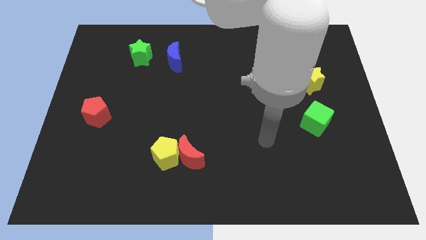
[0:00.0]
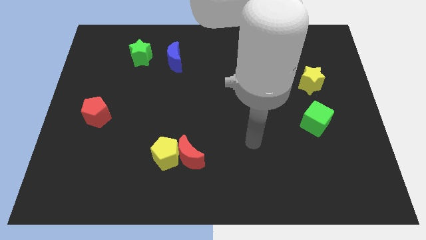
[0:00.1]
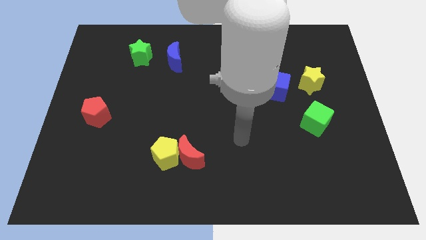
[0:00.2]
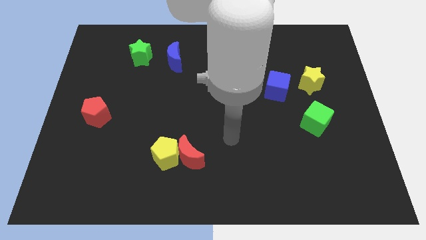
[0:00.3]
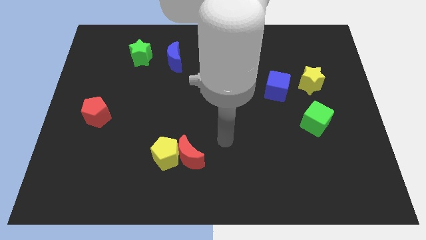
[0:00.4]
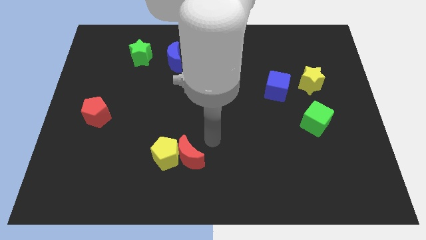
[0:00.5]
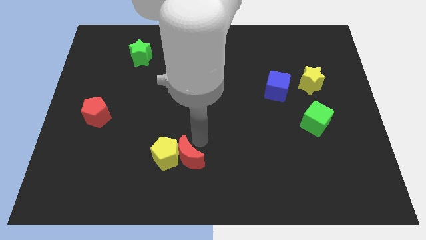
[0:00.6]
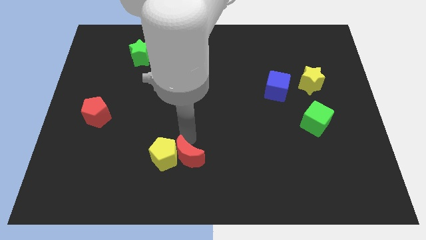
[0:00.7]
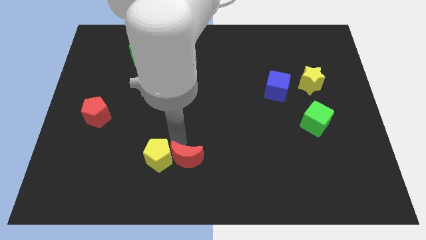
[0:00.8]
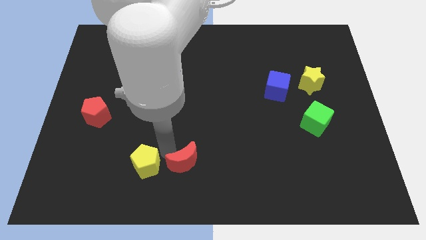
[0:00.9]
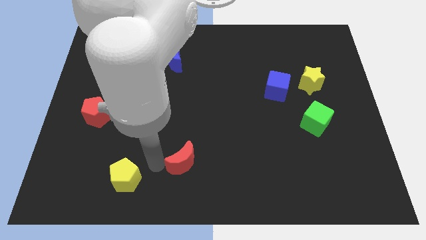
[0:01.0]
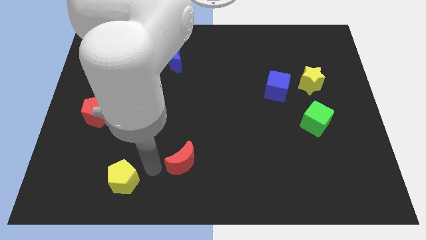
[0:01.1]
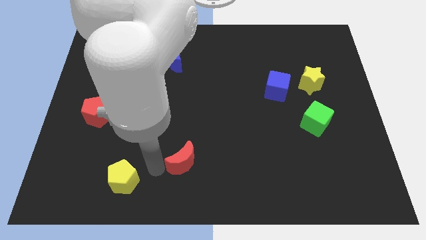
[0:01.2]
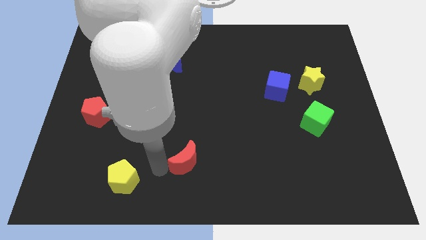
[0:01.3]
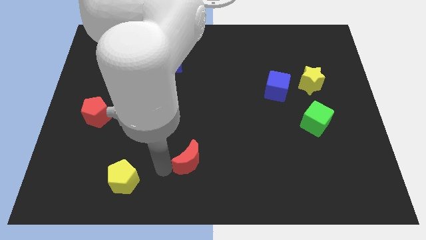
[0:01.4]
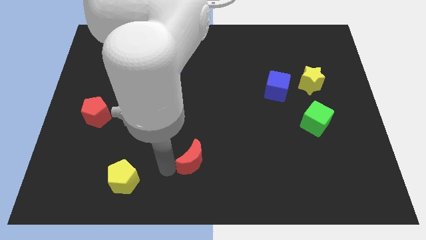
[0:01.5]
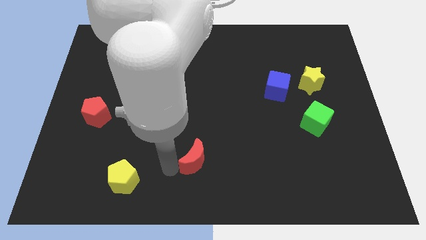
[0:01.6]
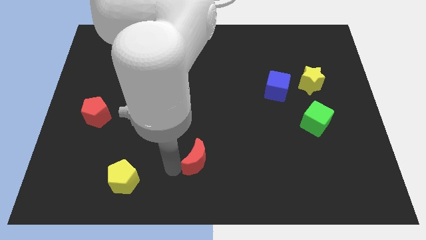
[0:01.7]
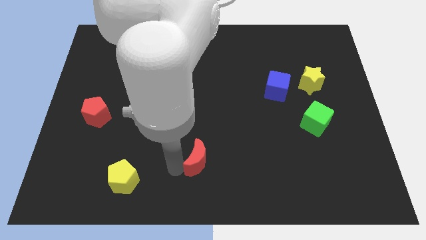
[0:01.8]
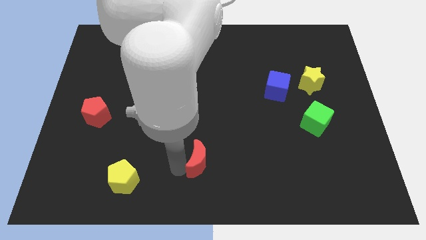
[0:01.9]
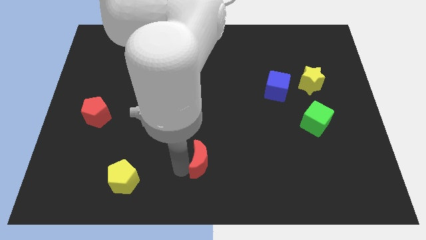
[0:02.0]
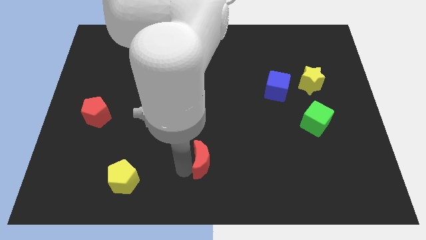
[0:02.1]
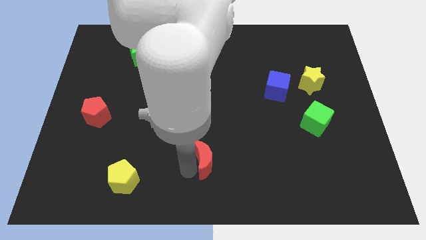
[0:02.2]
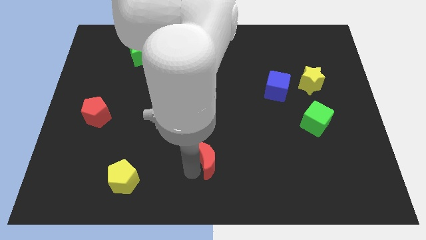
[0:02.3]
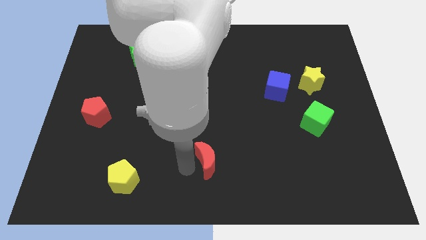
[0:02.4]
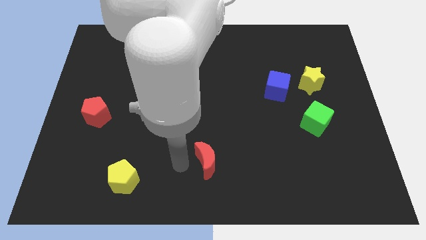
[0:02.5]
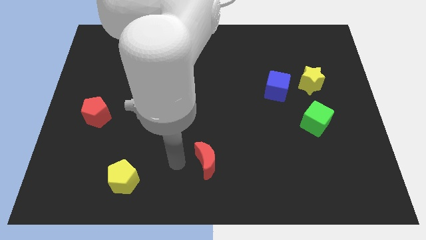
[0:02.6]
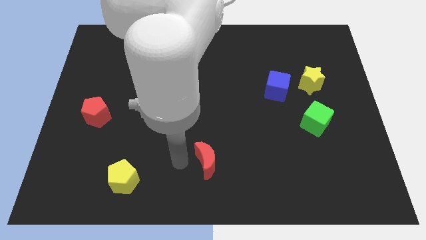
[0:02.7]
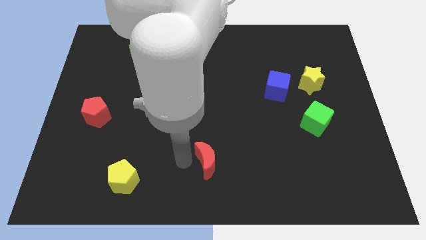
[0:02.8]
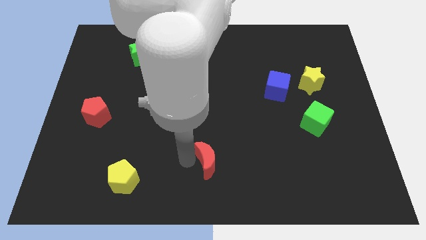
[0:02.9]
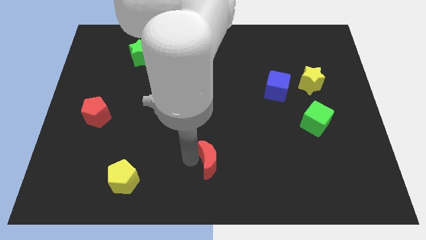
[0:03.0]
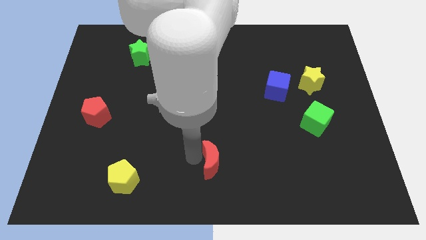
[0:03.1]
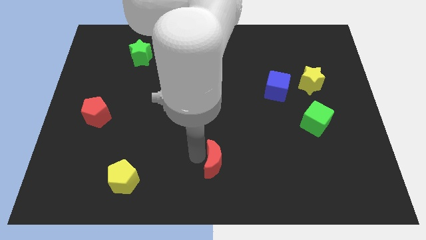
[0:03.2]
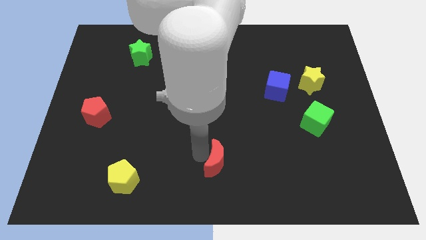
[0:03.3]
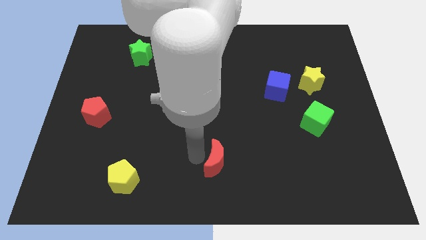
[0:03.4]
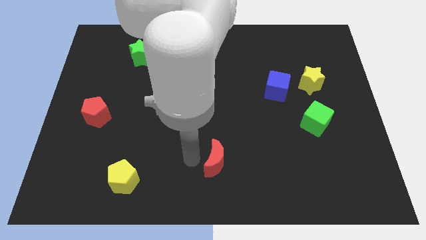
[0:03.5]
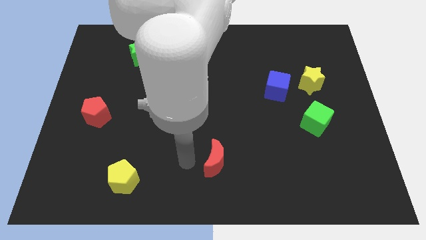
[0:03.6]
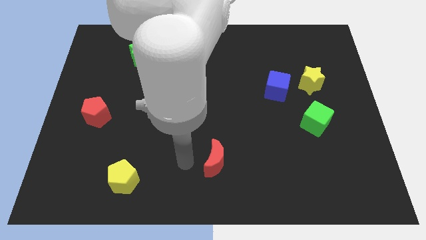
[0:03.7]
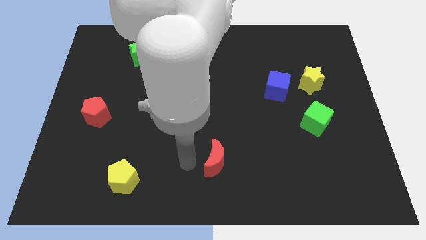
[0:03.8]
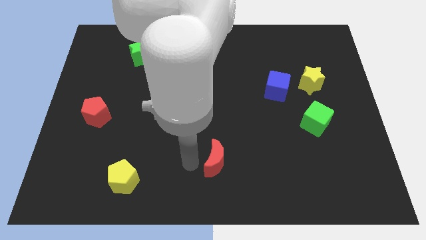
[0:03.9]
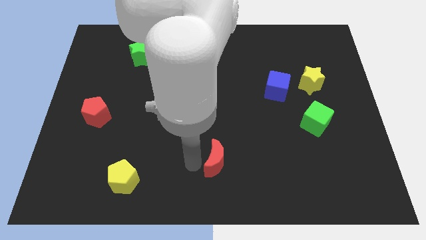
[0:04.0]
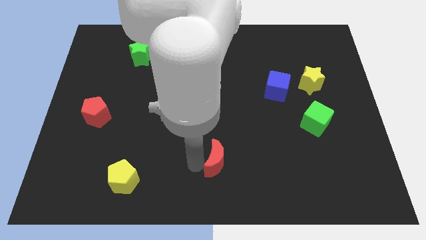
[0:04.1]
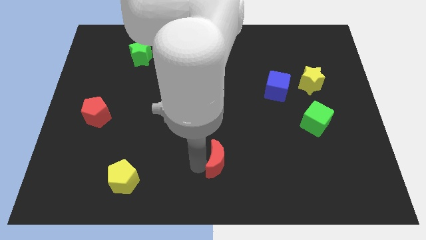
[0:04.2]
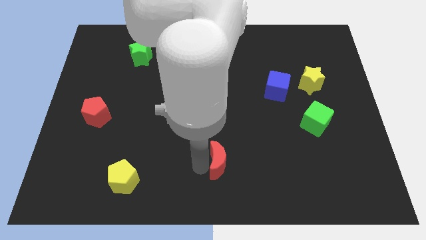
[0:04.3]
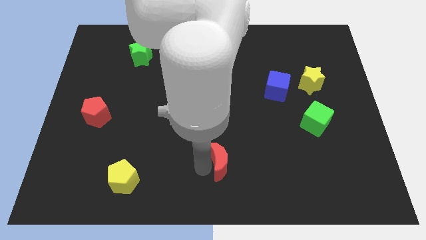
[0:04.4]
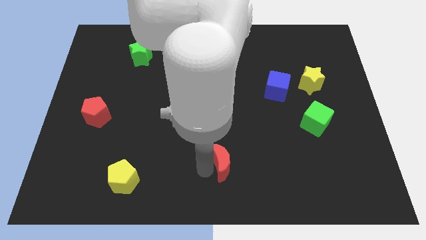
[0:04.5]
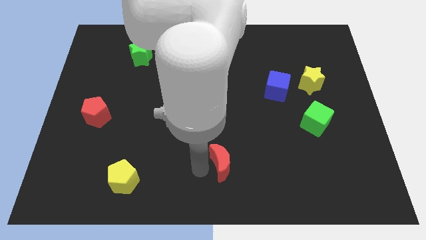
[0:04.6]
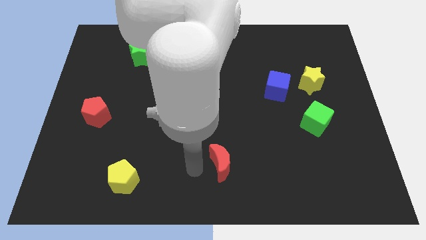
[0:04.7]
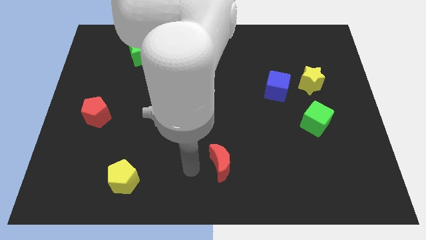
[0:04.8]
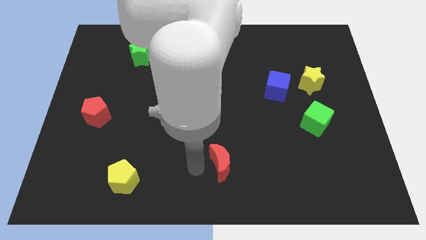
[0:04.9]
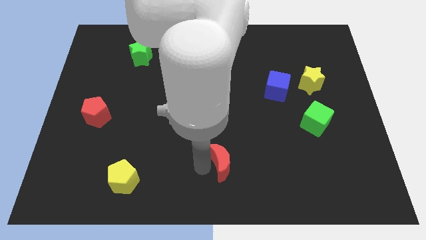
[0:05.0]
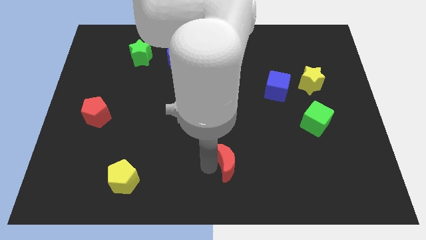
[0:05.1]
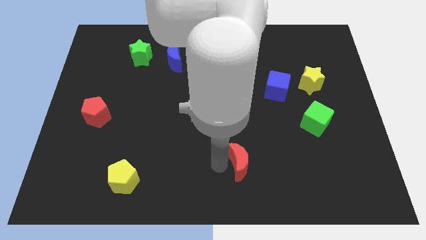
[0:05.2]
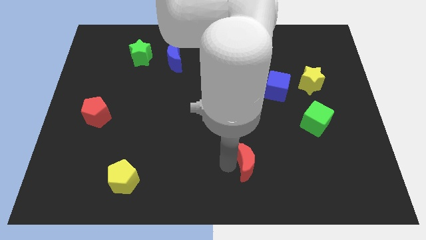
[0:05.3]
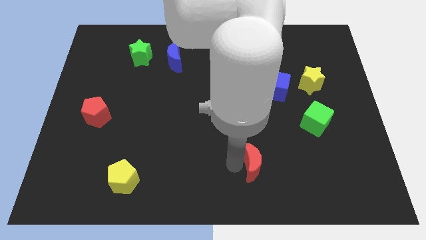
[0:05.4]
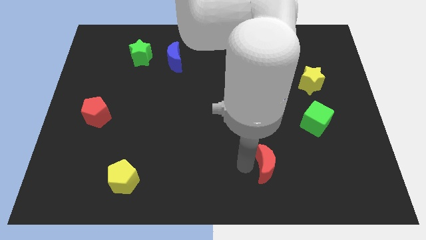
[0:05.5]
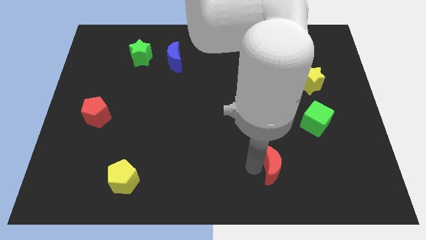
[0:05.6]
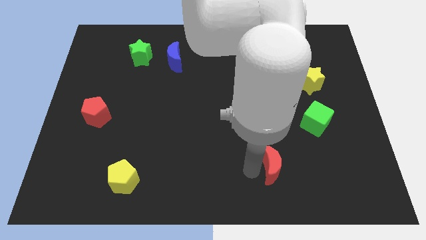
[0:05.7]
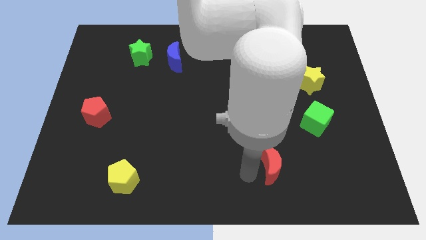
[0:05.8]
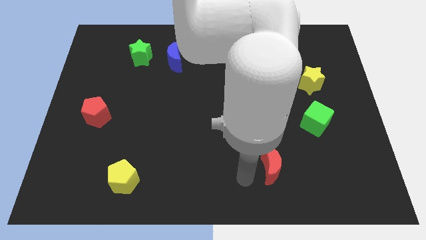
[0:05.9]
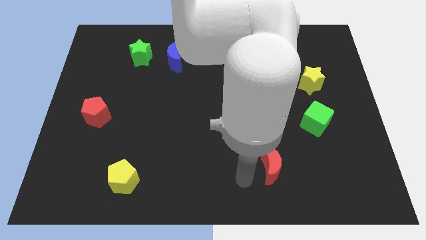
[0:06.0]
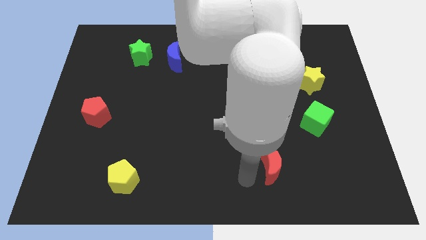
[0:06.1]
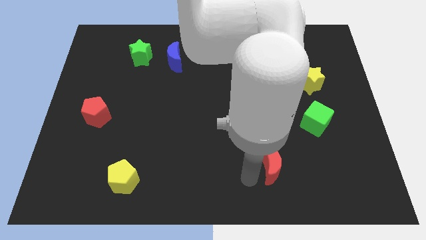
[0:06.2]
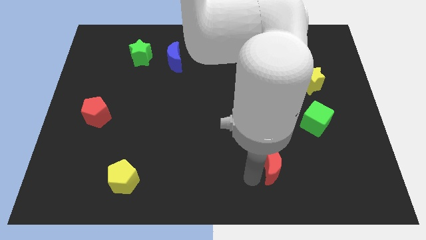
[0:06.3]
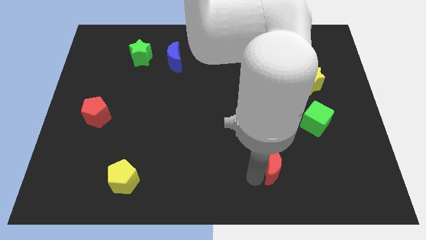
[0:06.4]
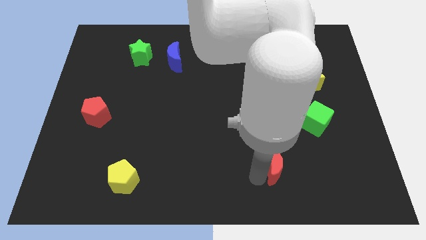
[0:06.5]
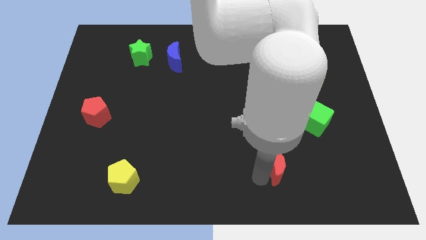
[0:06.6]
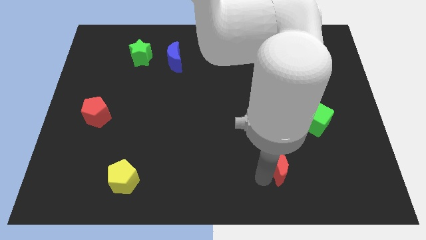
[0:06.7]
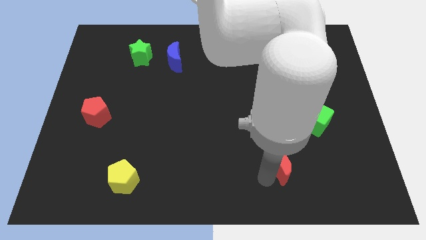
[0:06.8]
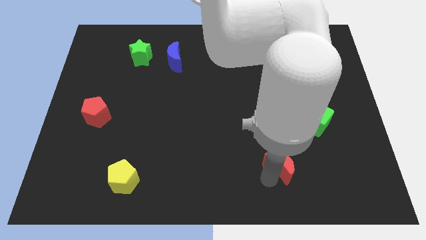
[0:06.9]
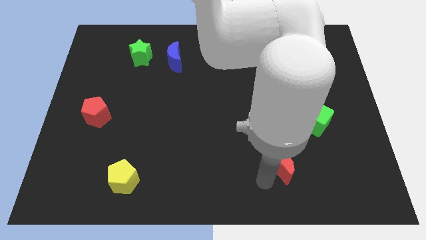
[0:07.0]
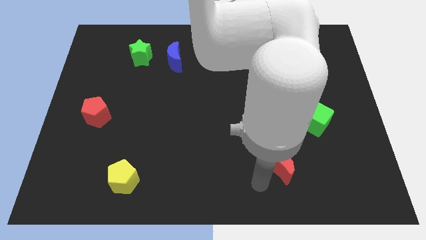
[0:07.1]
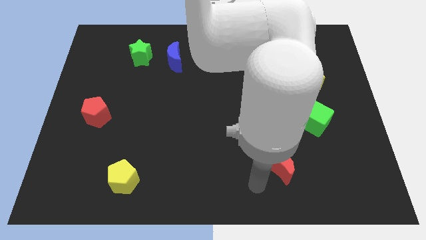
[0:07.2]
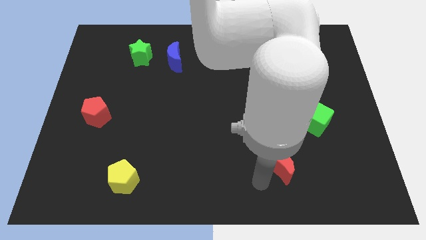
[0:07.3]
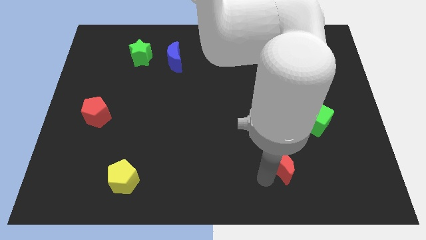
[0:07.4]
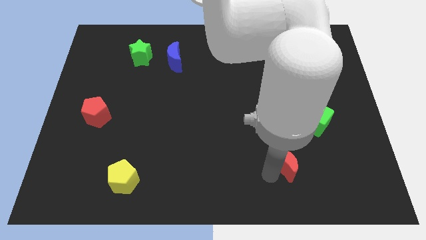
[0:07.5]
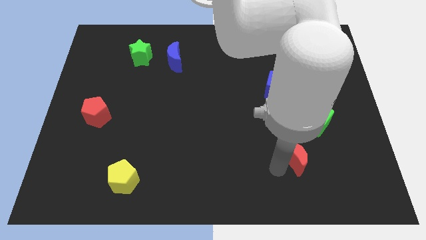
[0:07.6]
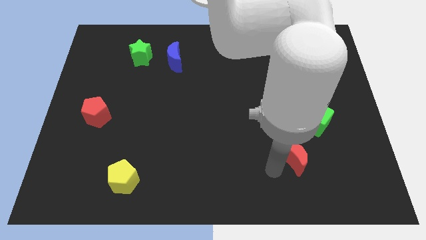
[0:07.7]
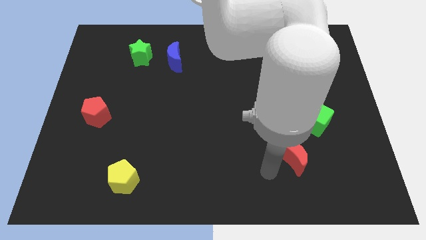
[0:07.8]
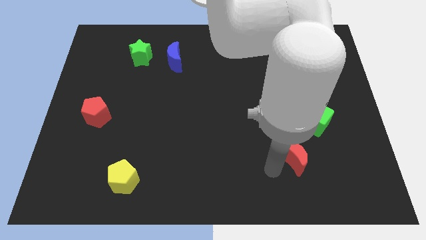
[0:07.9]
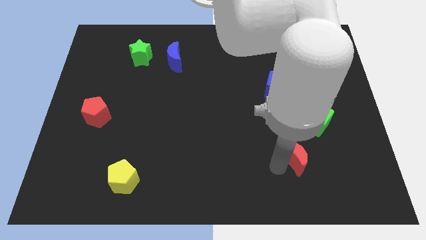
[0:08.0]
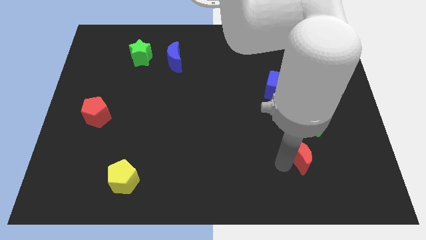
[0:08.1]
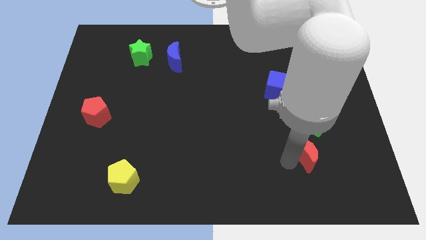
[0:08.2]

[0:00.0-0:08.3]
move the red moon below the green cube
